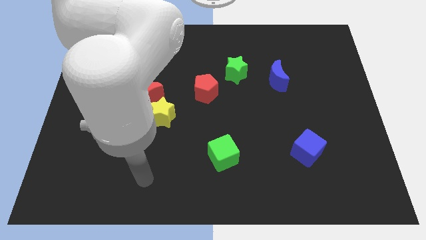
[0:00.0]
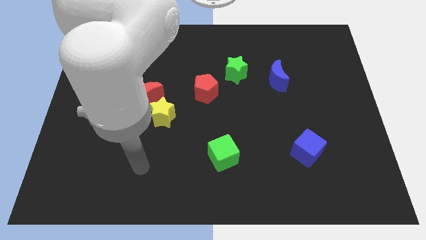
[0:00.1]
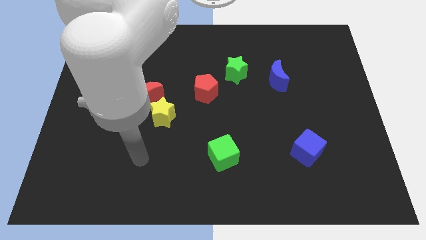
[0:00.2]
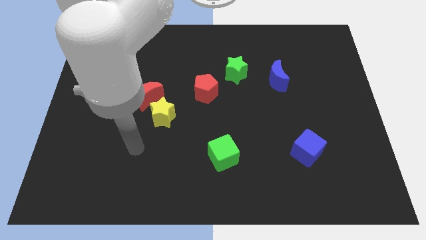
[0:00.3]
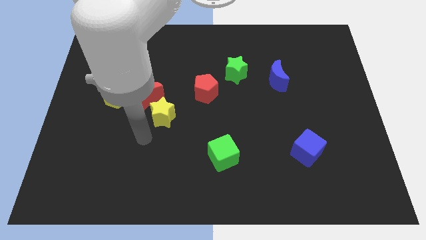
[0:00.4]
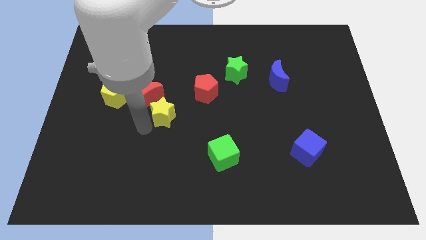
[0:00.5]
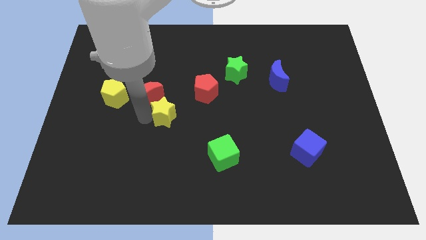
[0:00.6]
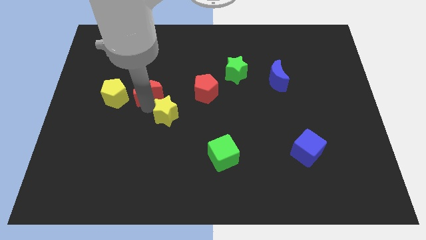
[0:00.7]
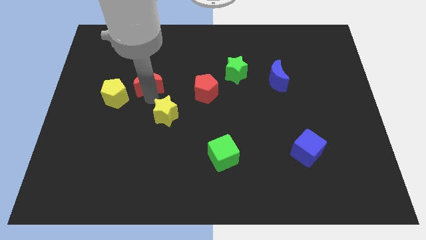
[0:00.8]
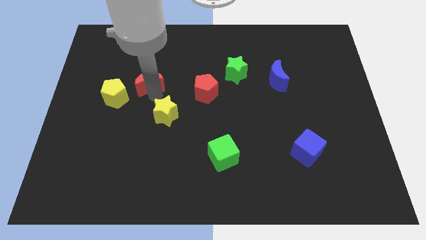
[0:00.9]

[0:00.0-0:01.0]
pull the yellow star apart from the red moon

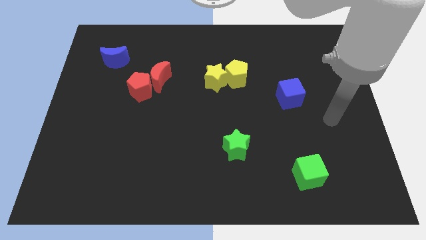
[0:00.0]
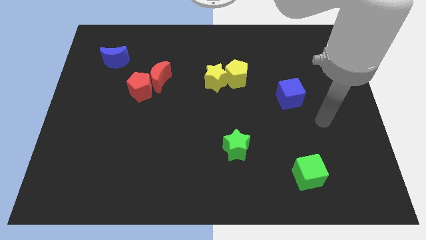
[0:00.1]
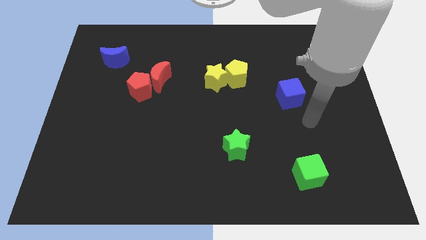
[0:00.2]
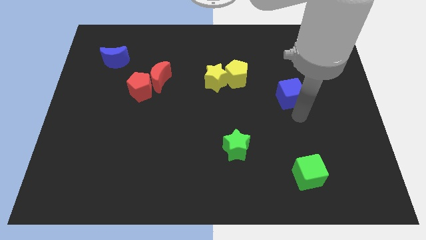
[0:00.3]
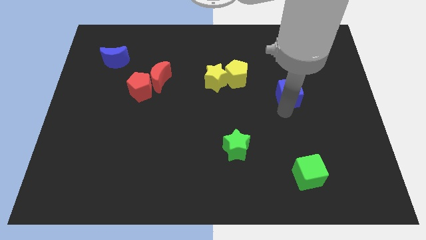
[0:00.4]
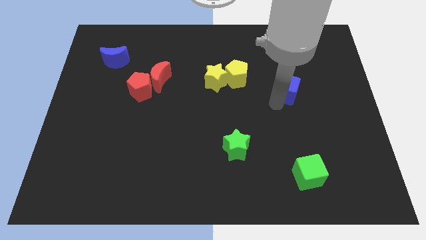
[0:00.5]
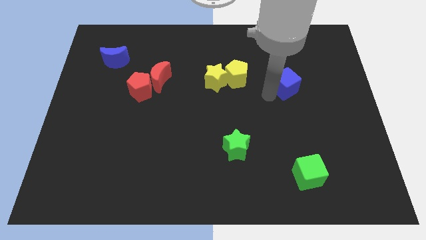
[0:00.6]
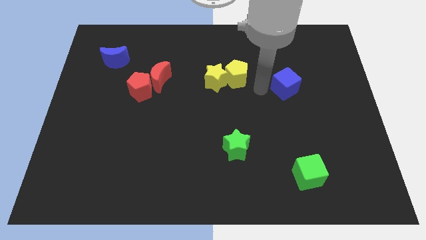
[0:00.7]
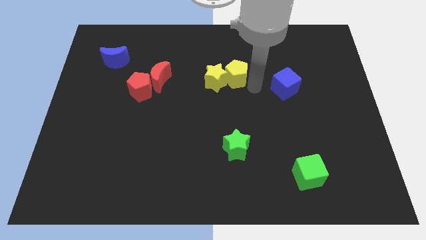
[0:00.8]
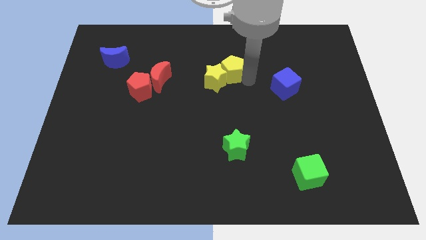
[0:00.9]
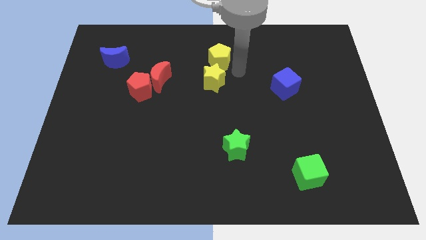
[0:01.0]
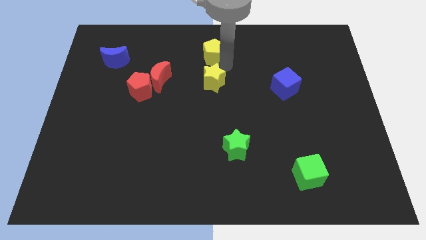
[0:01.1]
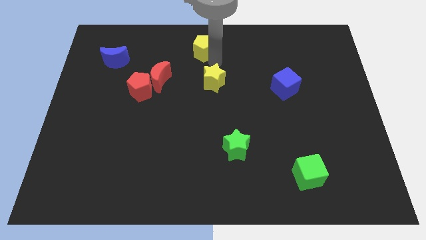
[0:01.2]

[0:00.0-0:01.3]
pull the yellow star apart from the yellow pentagon

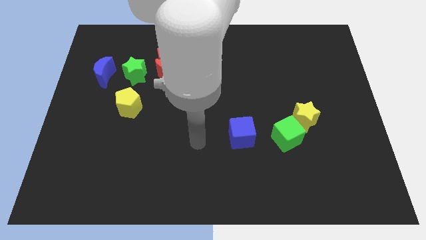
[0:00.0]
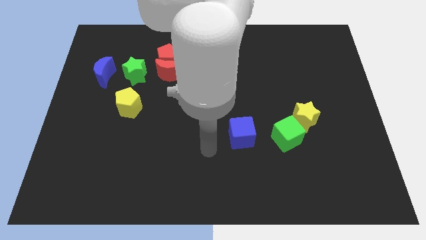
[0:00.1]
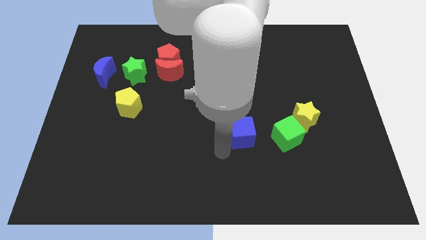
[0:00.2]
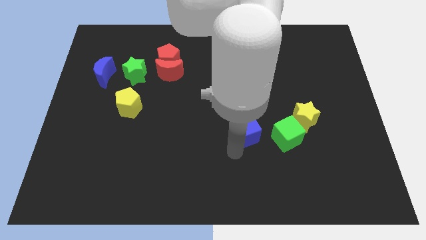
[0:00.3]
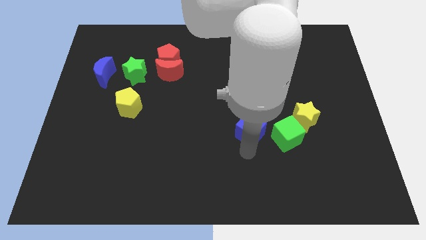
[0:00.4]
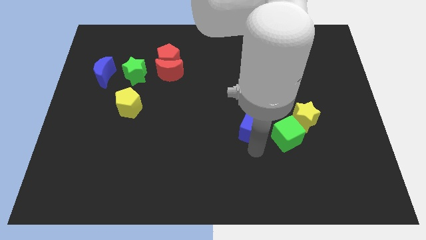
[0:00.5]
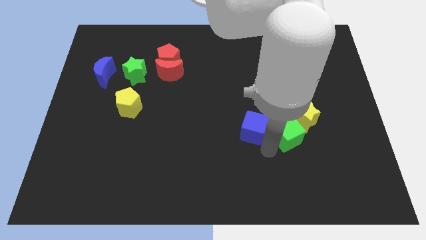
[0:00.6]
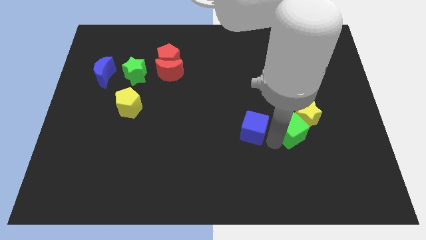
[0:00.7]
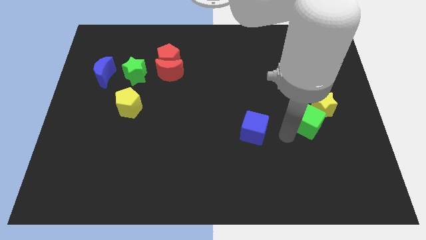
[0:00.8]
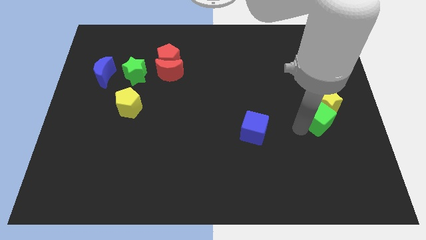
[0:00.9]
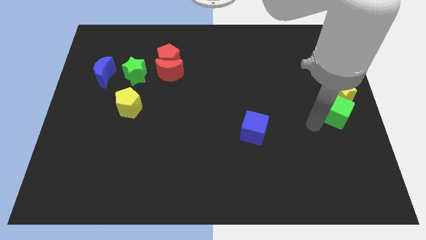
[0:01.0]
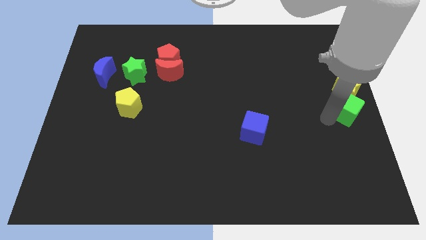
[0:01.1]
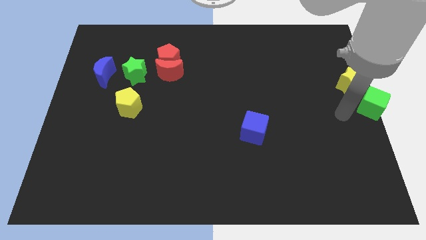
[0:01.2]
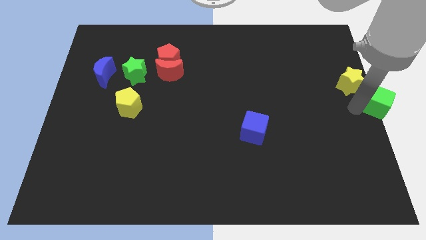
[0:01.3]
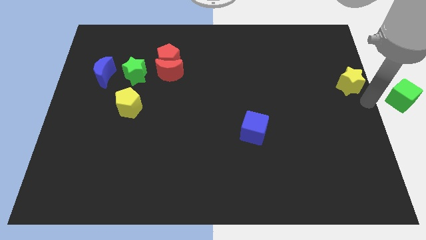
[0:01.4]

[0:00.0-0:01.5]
separate the yellow star from the green cube

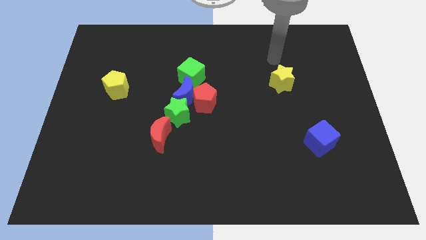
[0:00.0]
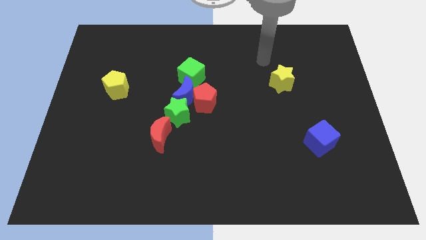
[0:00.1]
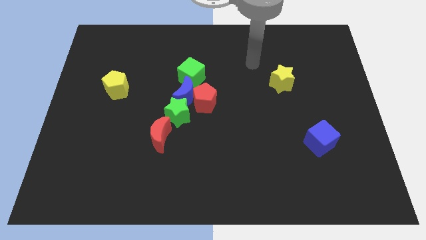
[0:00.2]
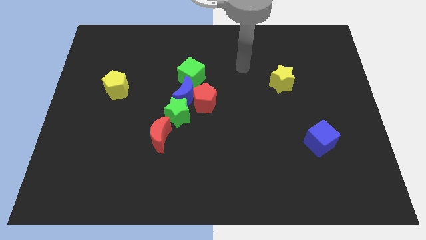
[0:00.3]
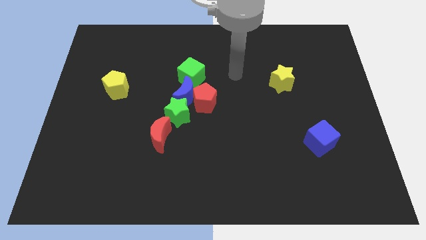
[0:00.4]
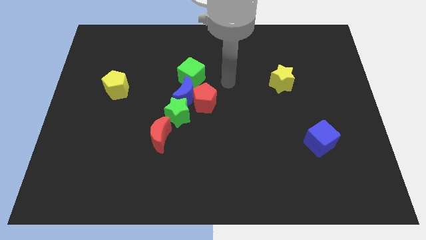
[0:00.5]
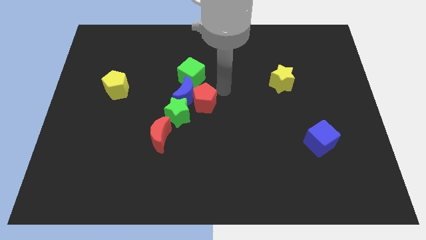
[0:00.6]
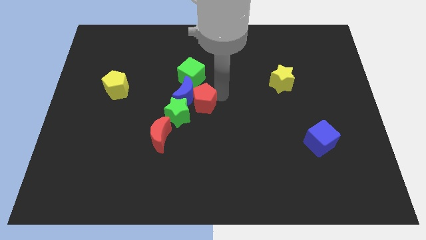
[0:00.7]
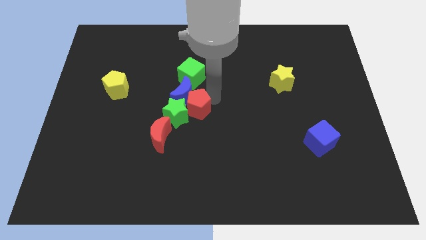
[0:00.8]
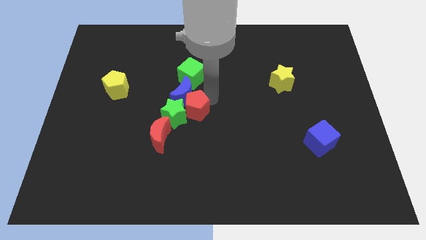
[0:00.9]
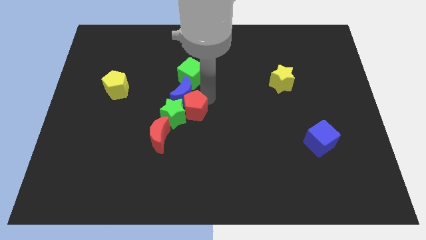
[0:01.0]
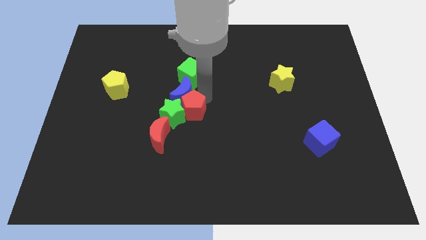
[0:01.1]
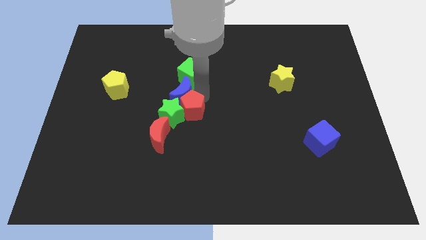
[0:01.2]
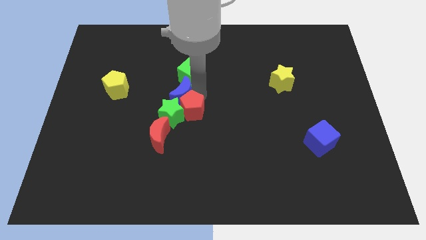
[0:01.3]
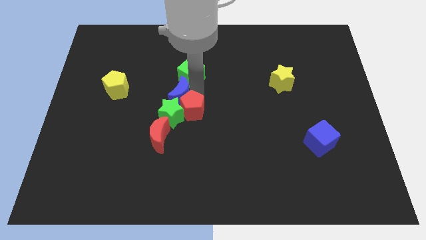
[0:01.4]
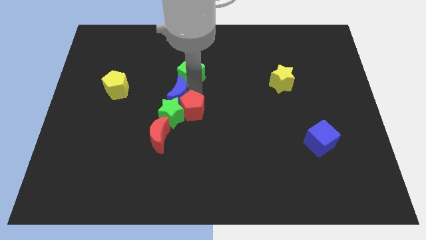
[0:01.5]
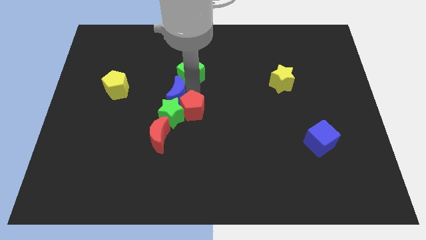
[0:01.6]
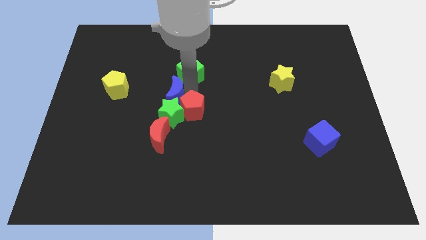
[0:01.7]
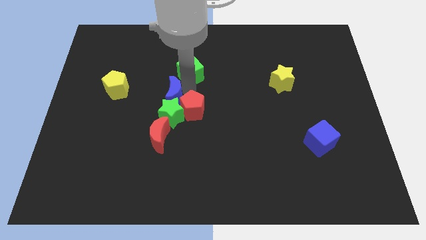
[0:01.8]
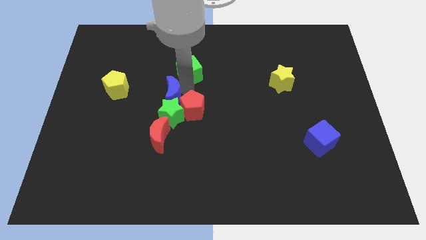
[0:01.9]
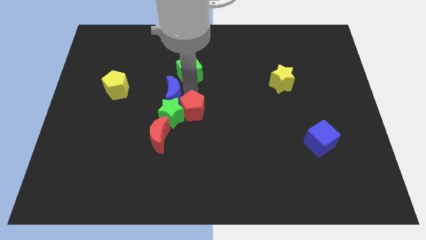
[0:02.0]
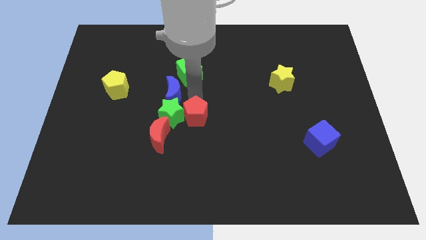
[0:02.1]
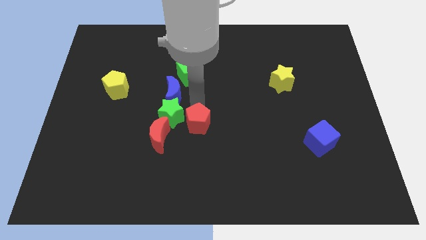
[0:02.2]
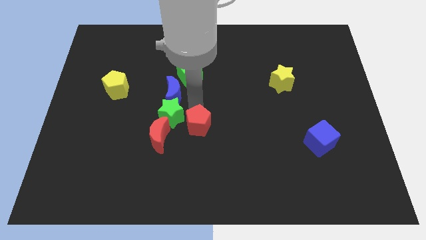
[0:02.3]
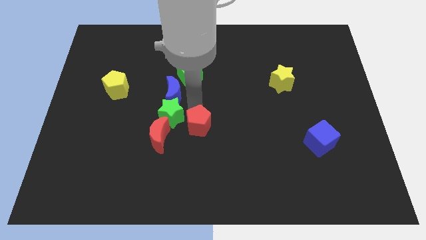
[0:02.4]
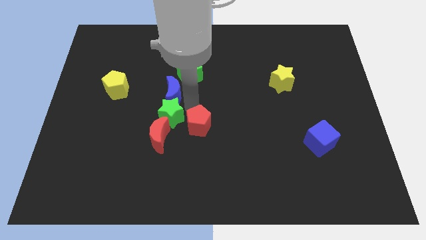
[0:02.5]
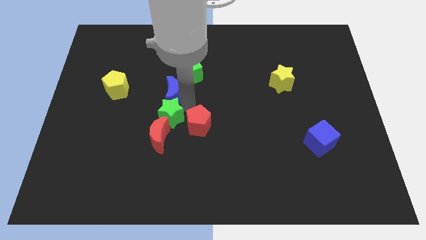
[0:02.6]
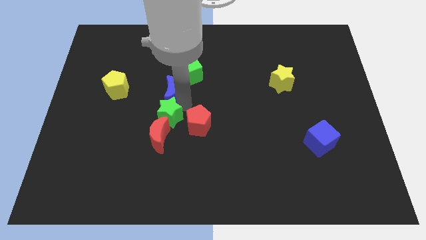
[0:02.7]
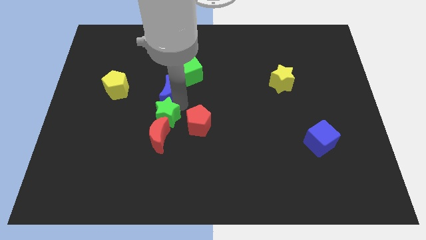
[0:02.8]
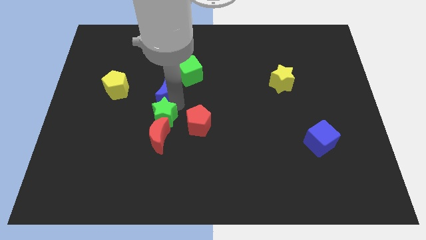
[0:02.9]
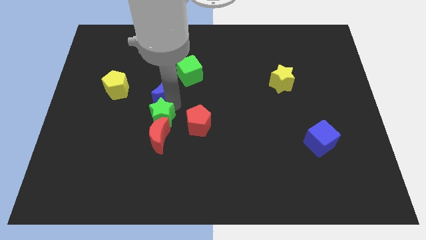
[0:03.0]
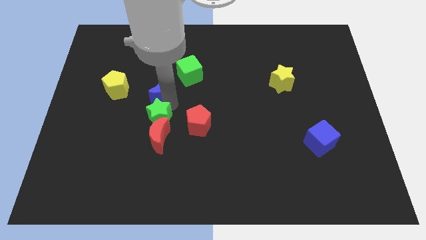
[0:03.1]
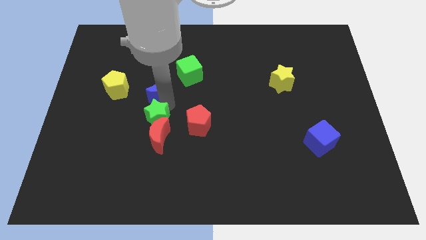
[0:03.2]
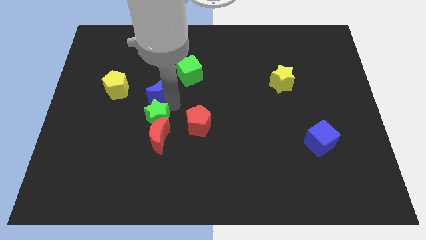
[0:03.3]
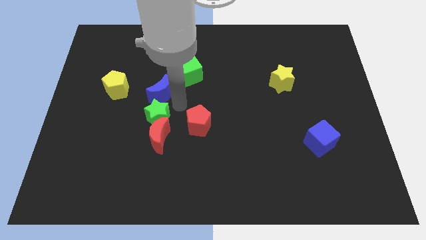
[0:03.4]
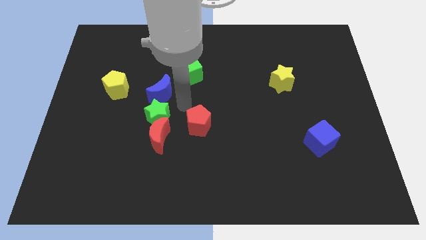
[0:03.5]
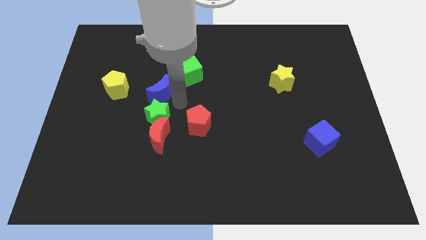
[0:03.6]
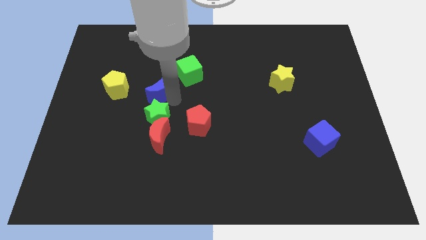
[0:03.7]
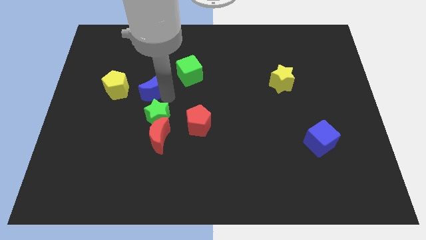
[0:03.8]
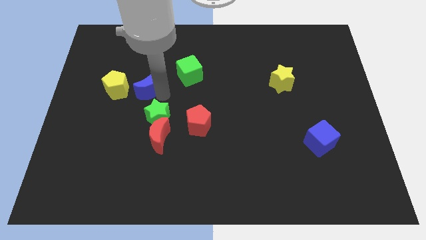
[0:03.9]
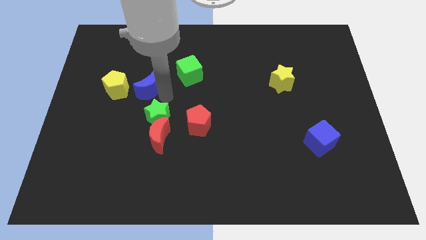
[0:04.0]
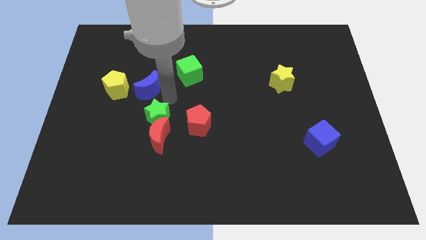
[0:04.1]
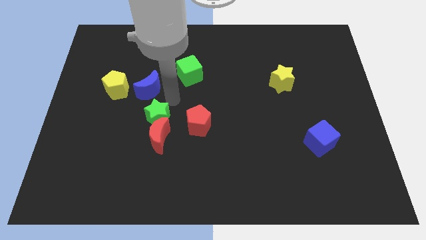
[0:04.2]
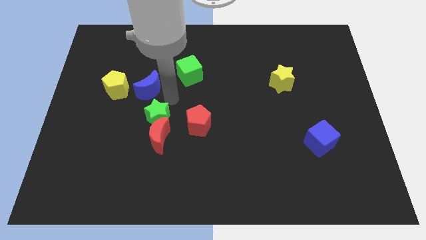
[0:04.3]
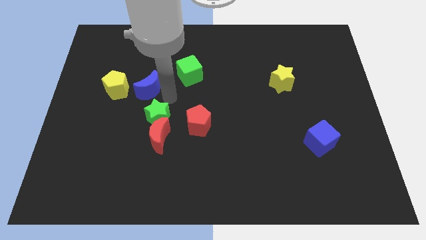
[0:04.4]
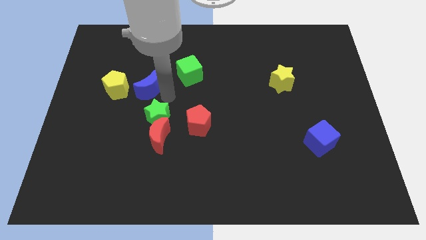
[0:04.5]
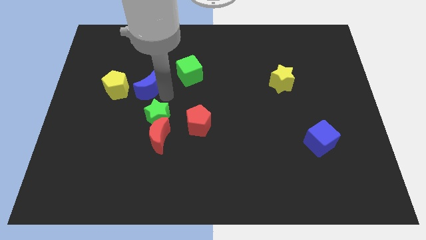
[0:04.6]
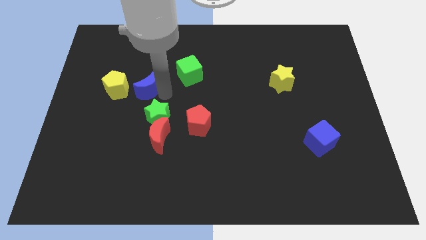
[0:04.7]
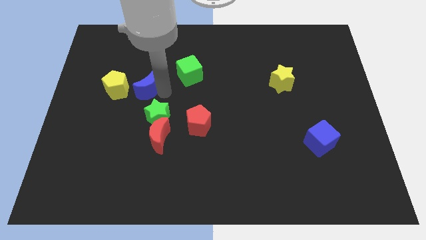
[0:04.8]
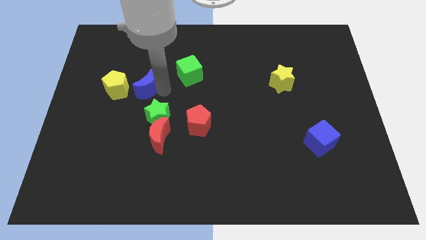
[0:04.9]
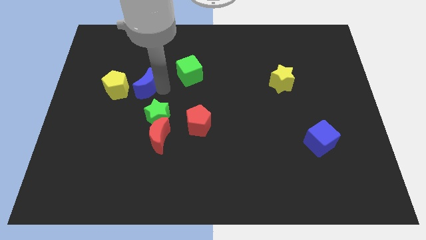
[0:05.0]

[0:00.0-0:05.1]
move the blue moon away from the group

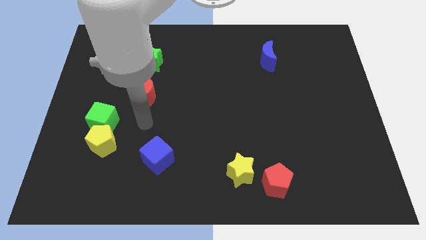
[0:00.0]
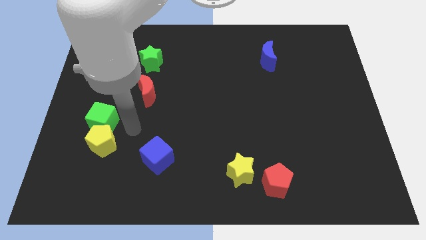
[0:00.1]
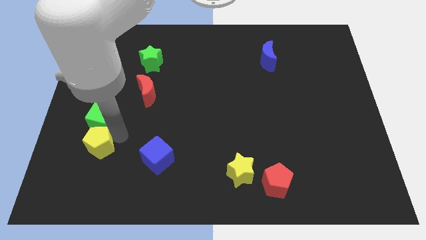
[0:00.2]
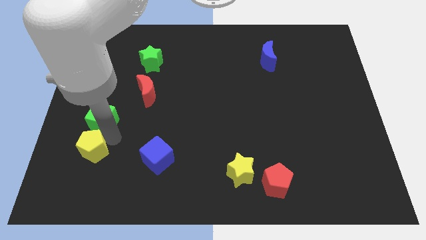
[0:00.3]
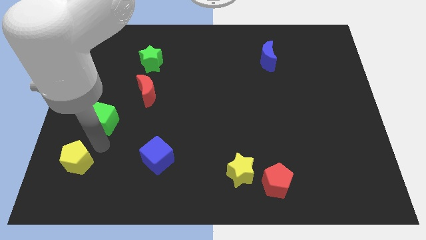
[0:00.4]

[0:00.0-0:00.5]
pull the green cube apart from the yellow pentagon
